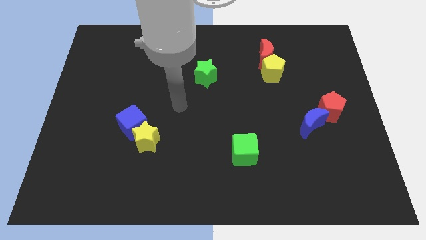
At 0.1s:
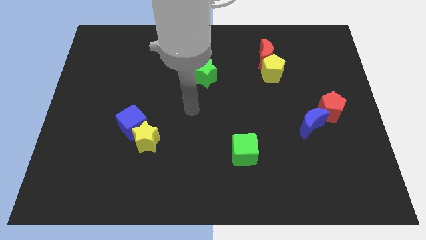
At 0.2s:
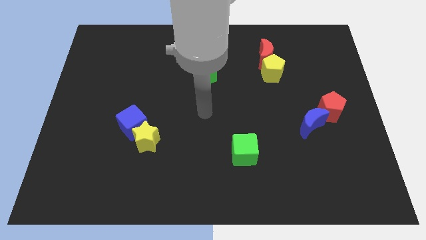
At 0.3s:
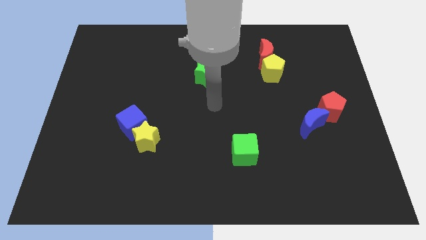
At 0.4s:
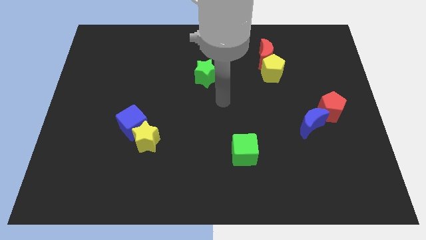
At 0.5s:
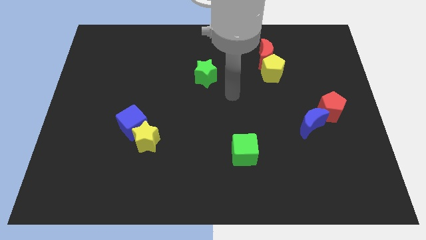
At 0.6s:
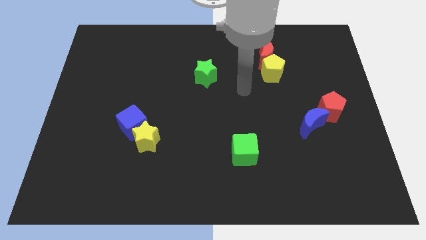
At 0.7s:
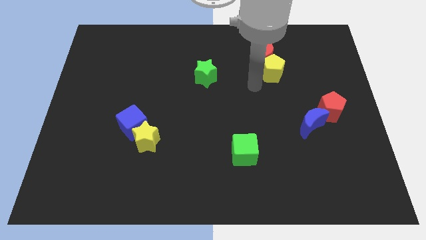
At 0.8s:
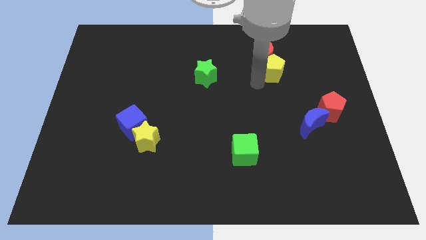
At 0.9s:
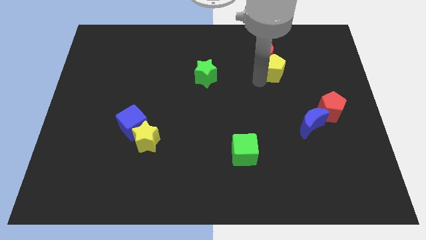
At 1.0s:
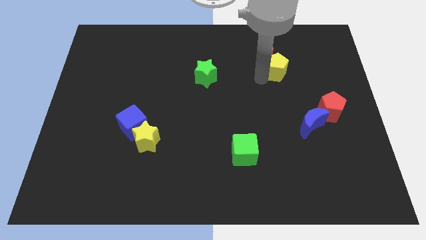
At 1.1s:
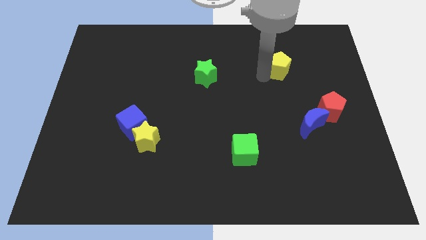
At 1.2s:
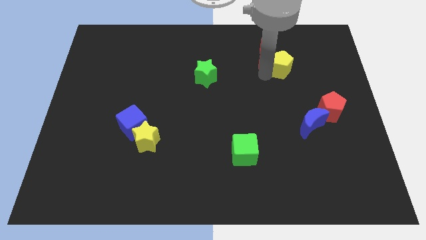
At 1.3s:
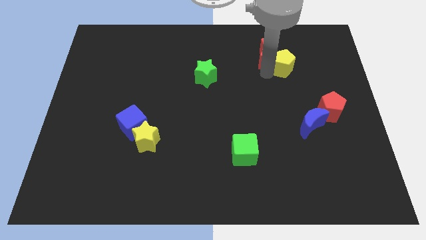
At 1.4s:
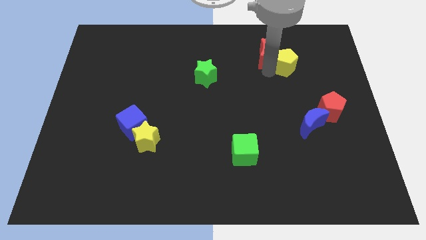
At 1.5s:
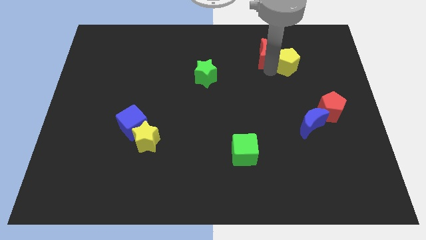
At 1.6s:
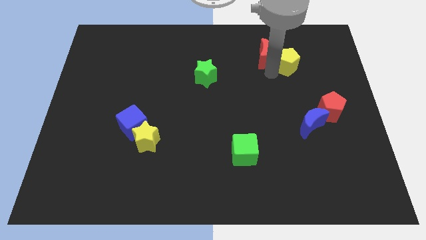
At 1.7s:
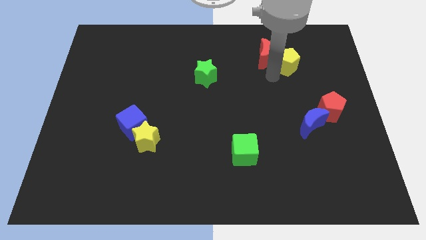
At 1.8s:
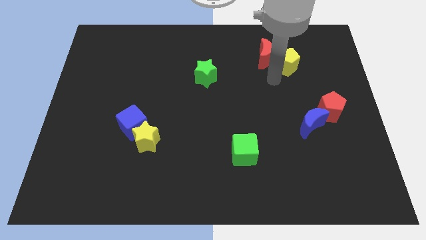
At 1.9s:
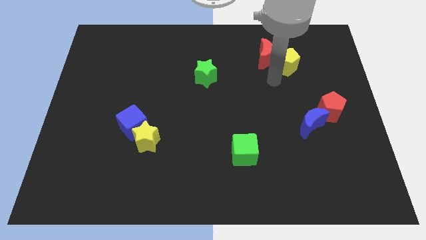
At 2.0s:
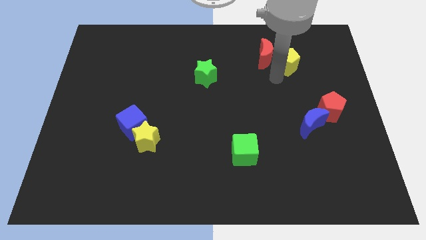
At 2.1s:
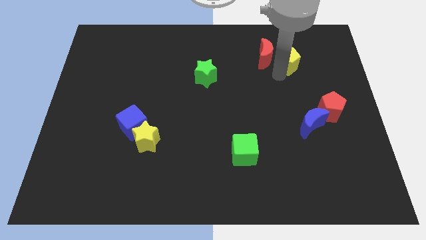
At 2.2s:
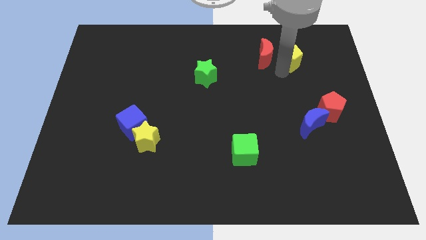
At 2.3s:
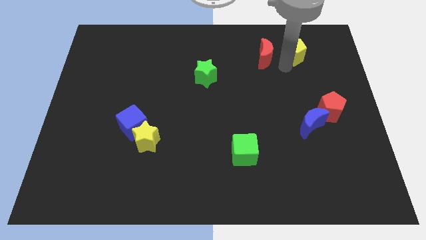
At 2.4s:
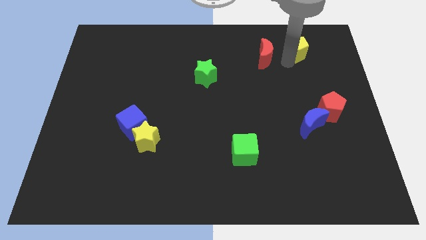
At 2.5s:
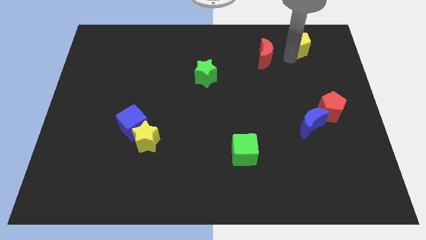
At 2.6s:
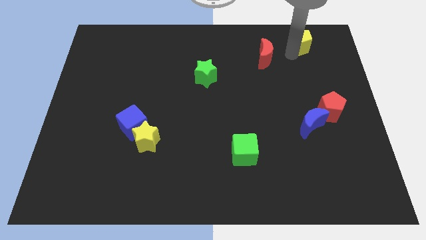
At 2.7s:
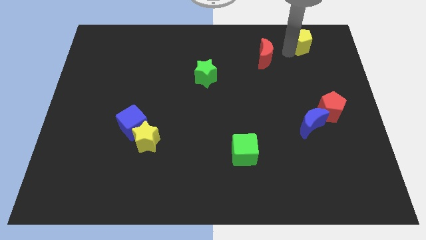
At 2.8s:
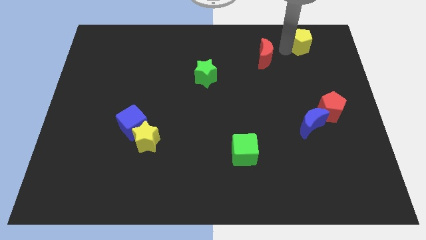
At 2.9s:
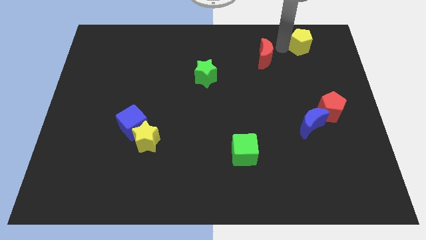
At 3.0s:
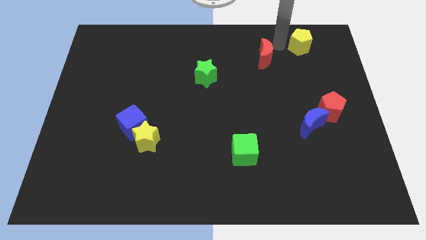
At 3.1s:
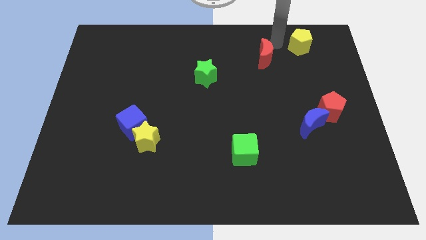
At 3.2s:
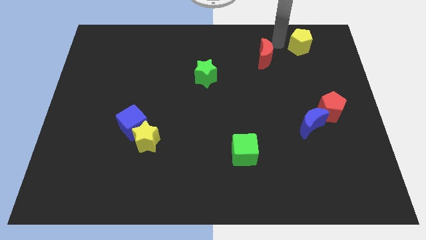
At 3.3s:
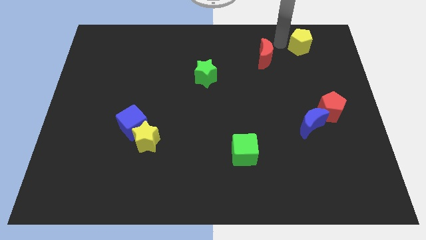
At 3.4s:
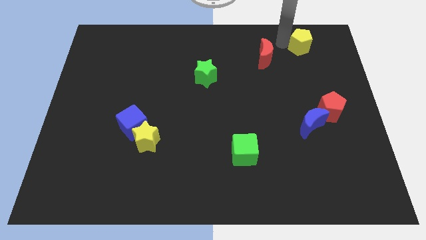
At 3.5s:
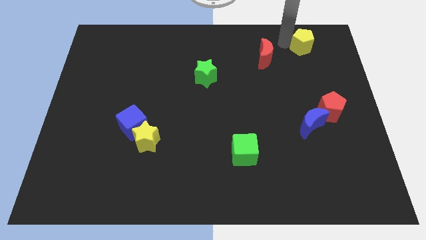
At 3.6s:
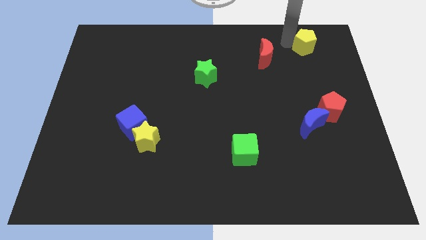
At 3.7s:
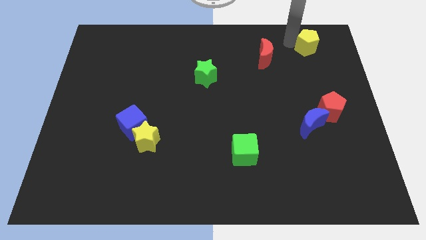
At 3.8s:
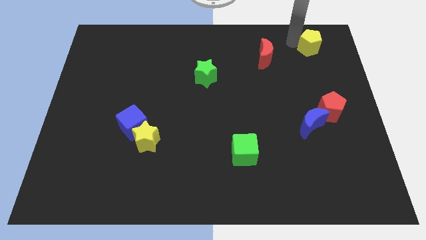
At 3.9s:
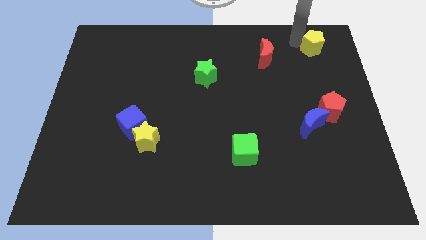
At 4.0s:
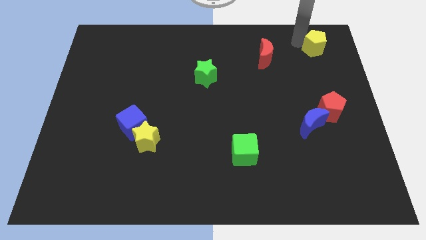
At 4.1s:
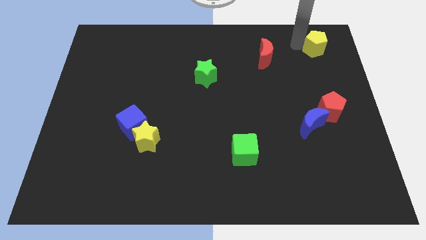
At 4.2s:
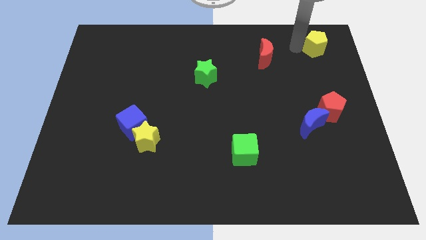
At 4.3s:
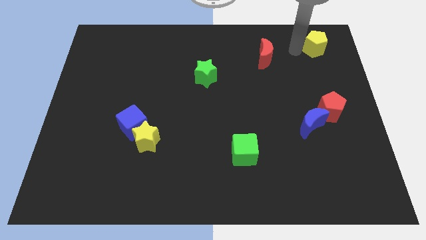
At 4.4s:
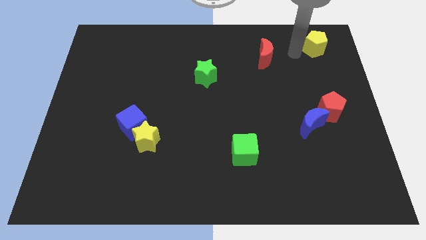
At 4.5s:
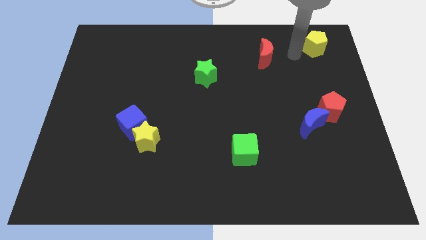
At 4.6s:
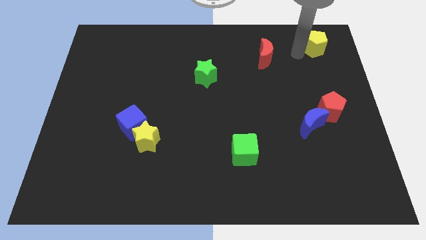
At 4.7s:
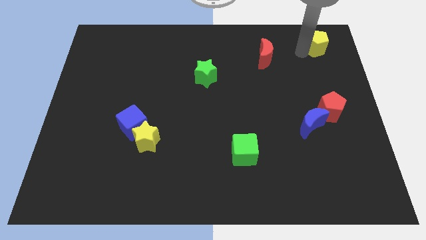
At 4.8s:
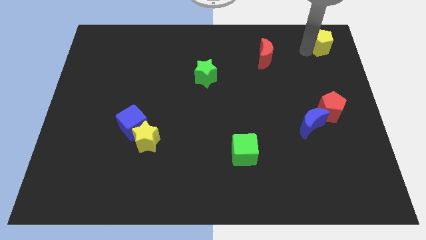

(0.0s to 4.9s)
slide the yellow pentagon to the top right

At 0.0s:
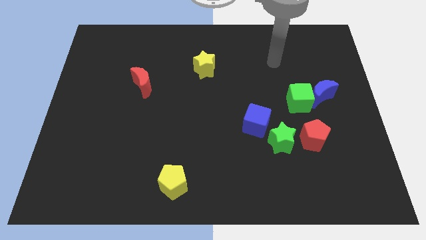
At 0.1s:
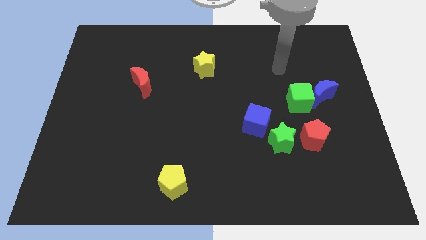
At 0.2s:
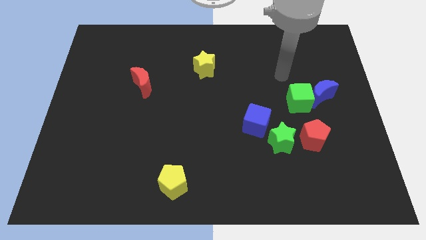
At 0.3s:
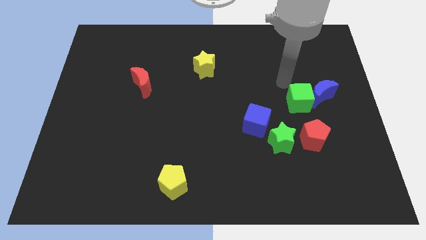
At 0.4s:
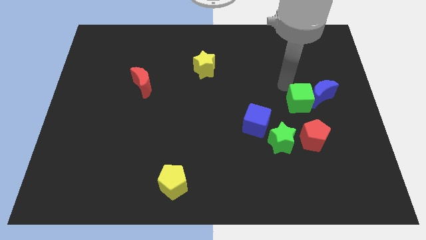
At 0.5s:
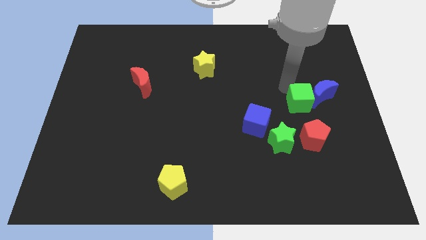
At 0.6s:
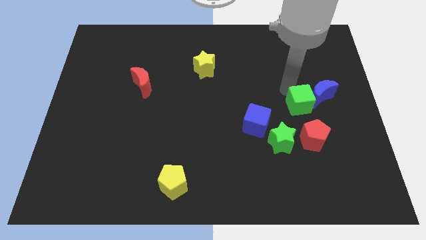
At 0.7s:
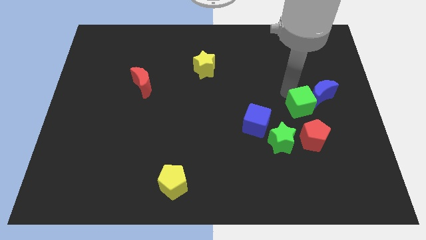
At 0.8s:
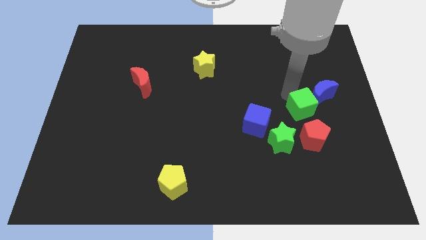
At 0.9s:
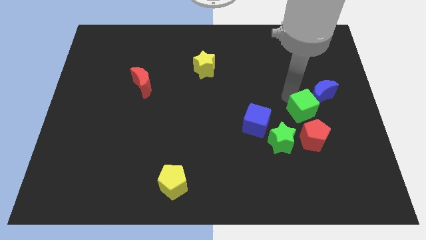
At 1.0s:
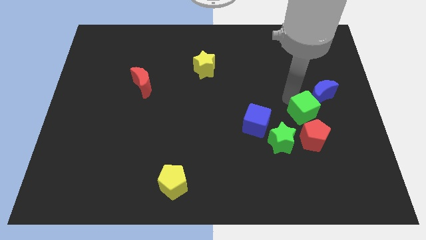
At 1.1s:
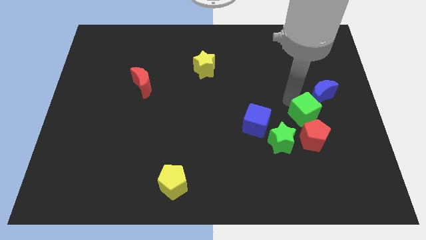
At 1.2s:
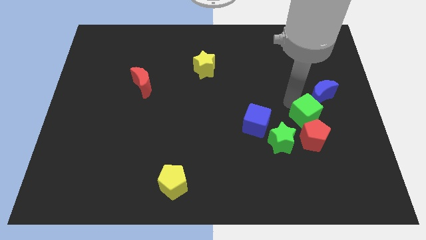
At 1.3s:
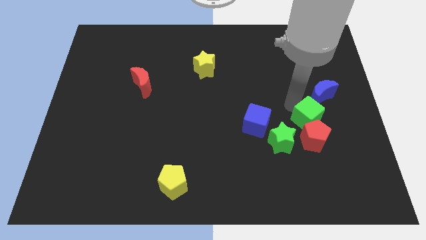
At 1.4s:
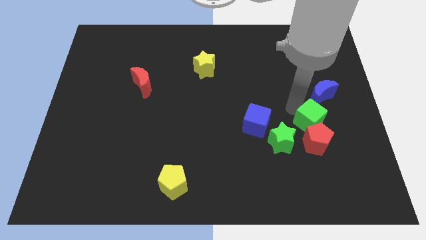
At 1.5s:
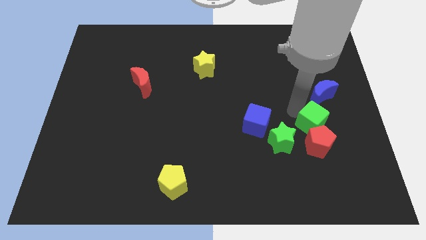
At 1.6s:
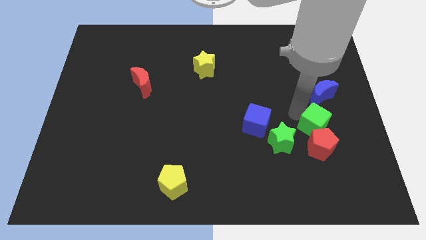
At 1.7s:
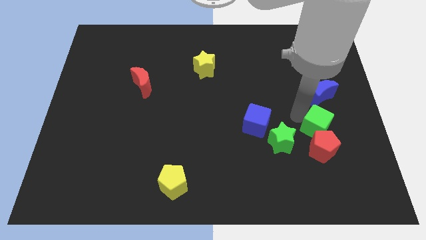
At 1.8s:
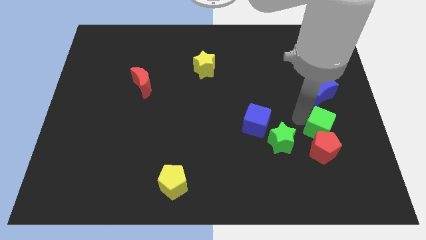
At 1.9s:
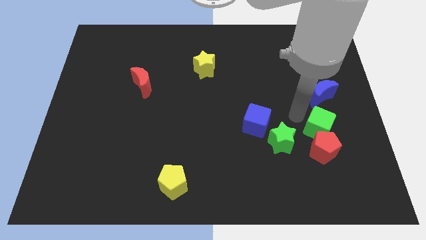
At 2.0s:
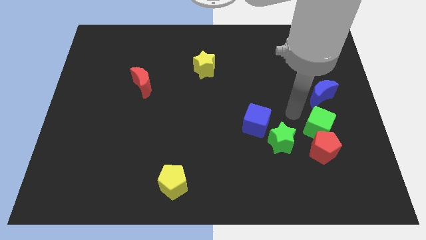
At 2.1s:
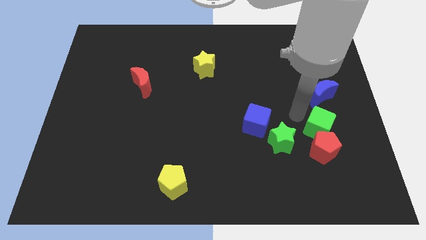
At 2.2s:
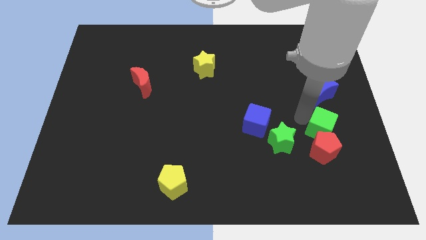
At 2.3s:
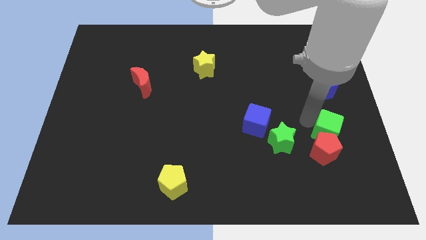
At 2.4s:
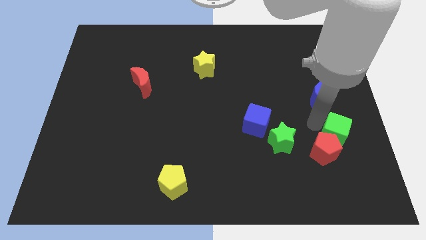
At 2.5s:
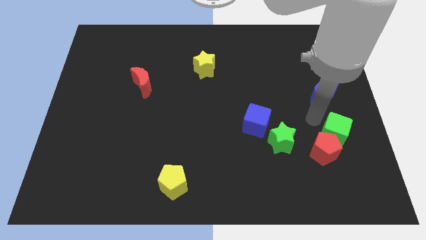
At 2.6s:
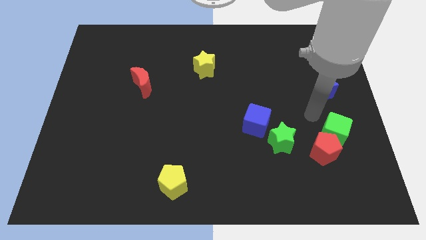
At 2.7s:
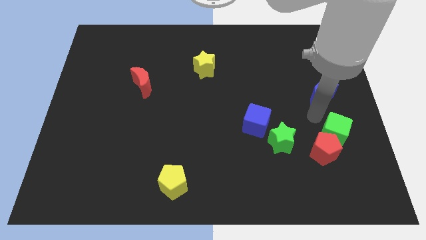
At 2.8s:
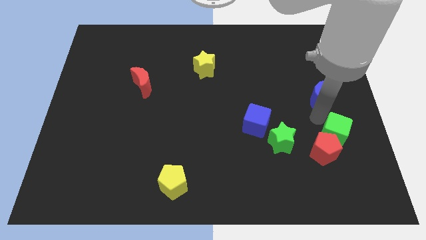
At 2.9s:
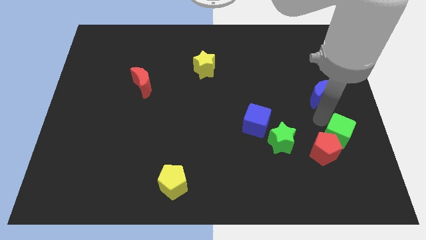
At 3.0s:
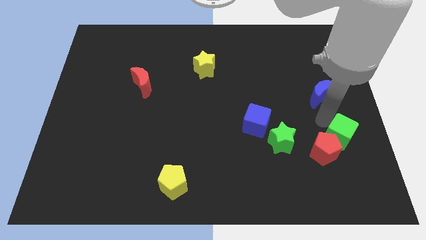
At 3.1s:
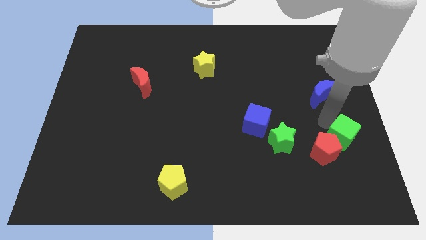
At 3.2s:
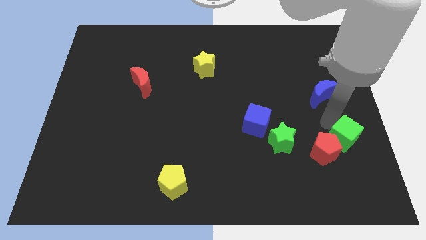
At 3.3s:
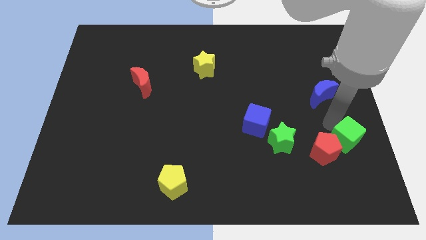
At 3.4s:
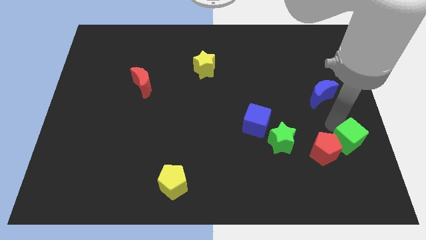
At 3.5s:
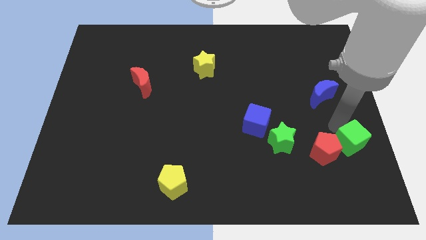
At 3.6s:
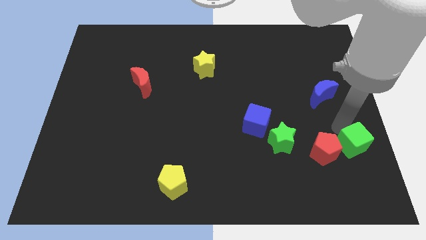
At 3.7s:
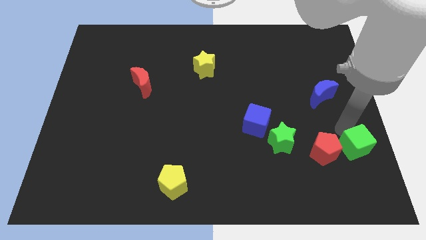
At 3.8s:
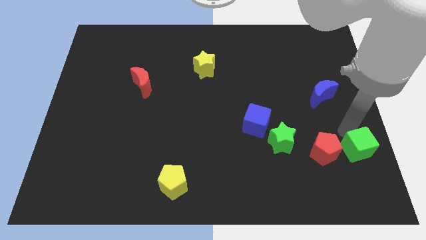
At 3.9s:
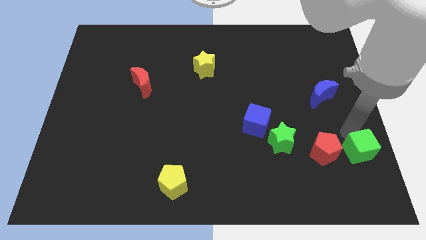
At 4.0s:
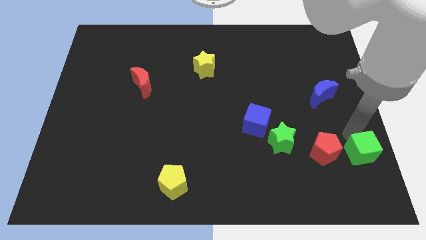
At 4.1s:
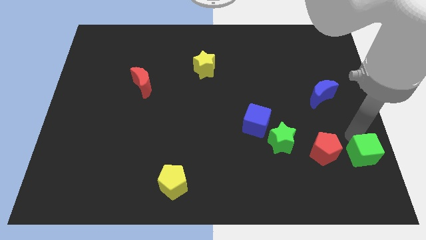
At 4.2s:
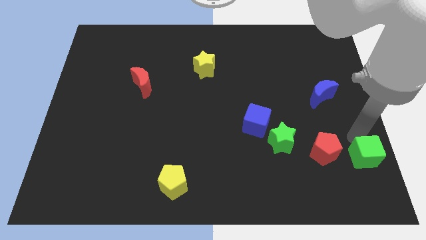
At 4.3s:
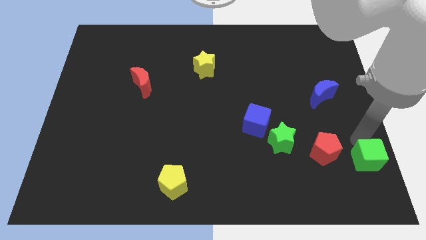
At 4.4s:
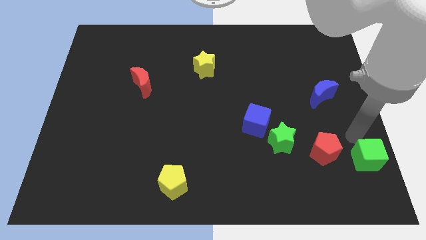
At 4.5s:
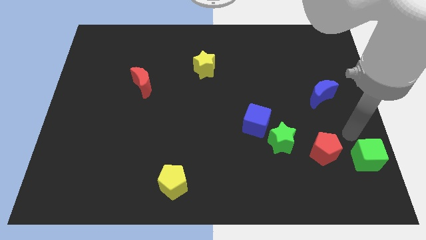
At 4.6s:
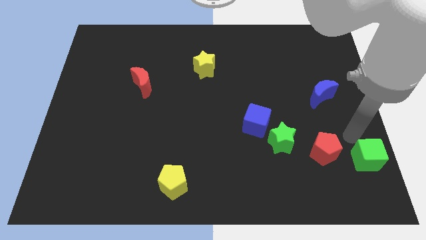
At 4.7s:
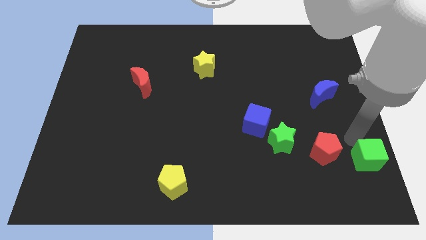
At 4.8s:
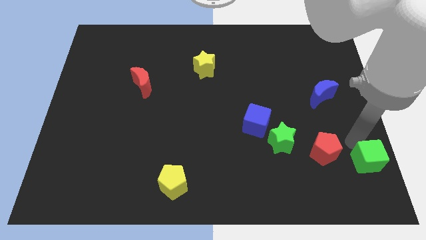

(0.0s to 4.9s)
slide the green cube to the bottom right of the board
